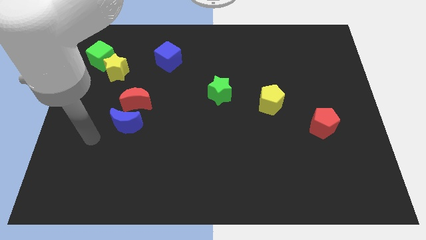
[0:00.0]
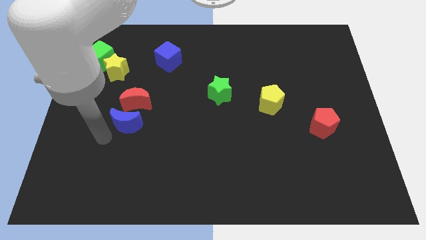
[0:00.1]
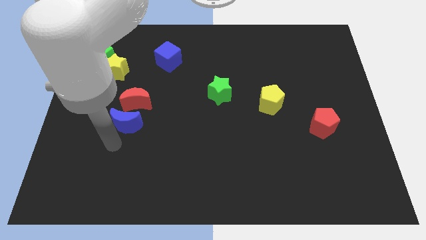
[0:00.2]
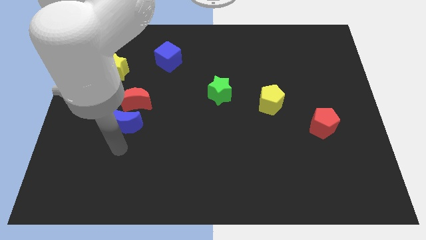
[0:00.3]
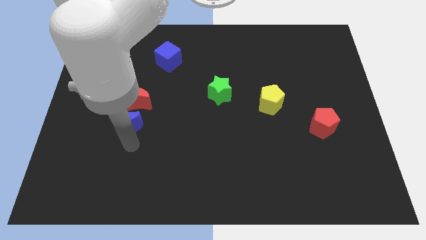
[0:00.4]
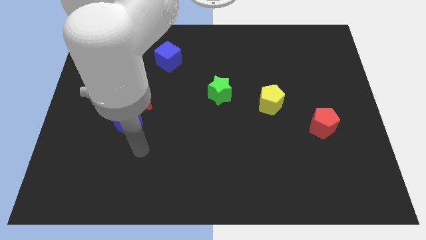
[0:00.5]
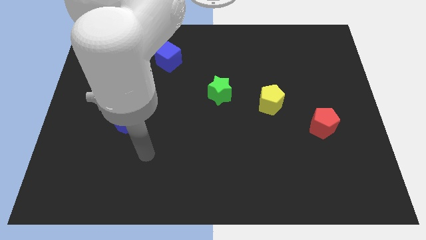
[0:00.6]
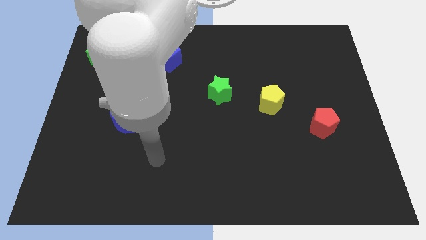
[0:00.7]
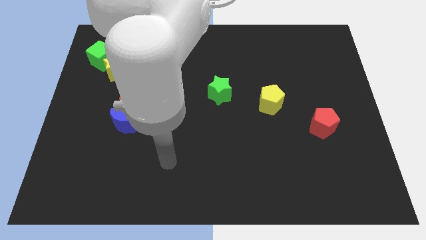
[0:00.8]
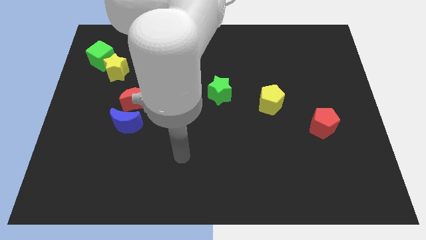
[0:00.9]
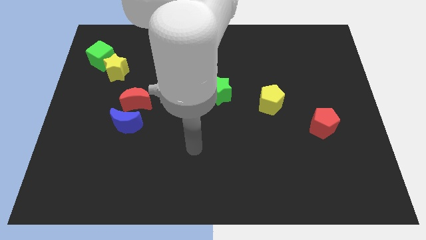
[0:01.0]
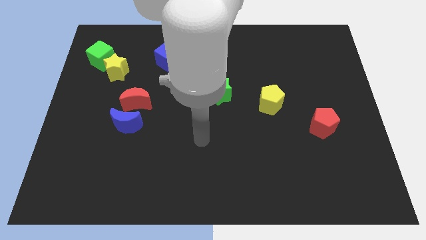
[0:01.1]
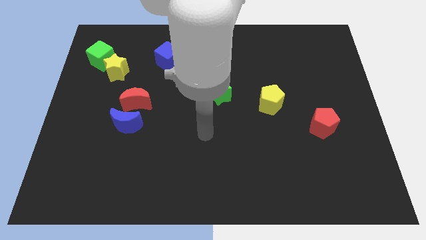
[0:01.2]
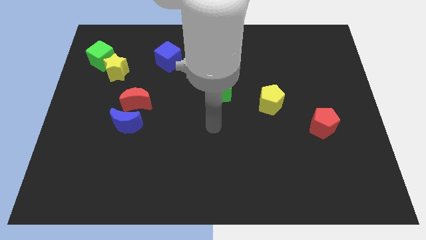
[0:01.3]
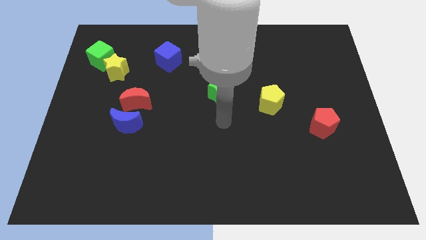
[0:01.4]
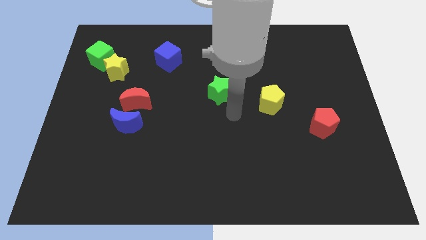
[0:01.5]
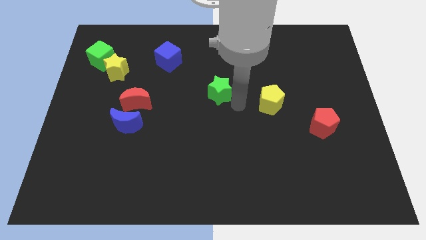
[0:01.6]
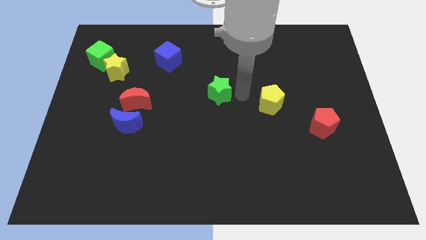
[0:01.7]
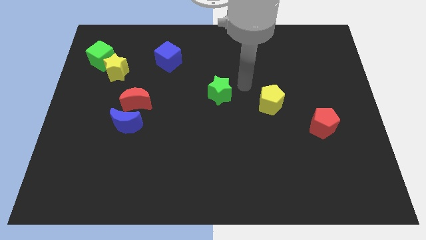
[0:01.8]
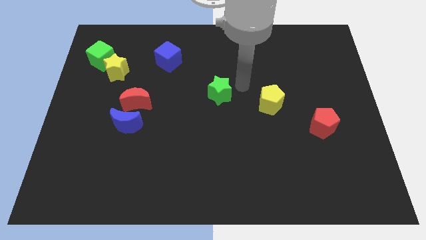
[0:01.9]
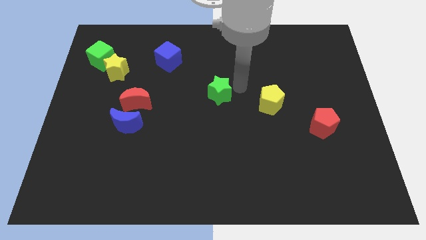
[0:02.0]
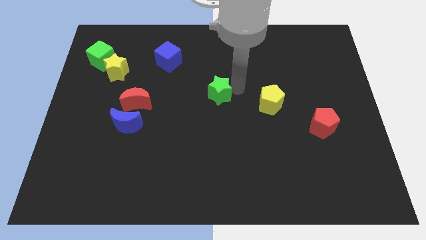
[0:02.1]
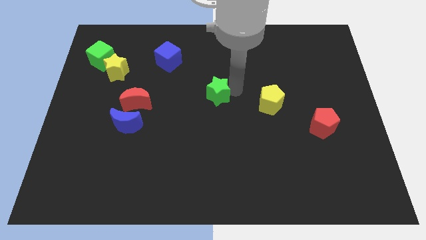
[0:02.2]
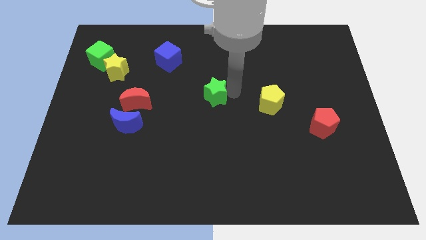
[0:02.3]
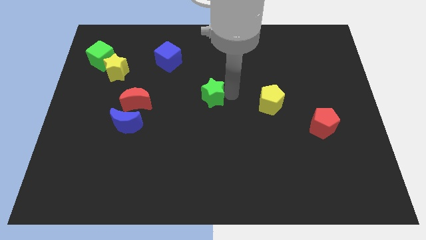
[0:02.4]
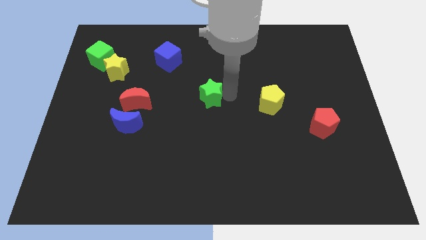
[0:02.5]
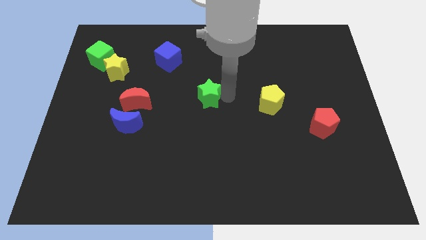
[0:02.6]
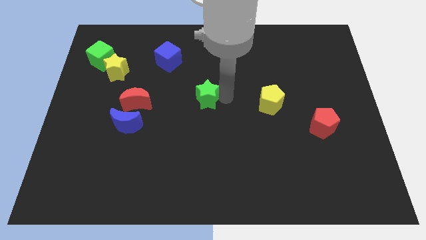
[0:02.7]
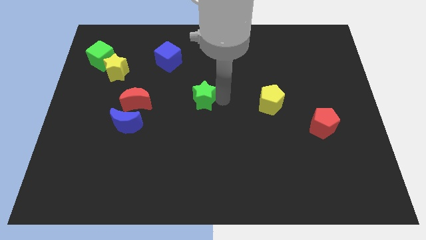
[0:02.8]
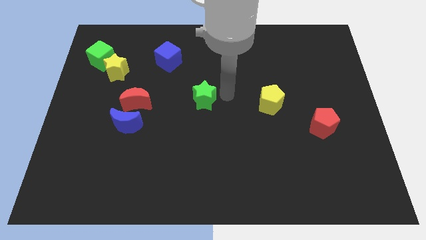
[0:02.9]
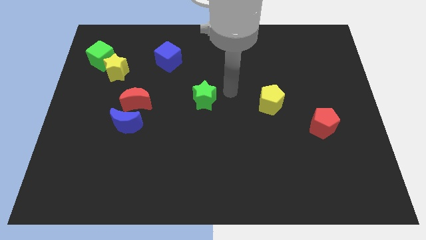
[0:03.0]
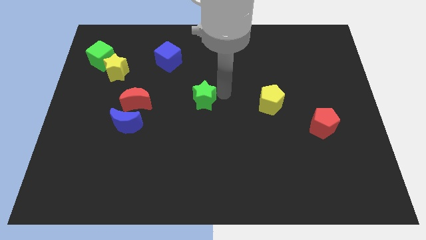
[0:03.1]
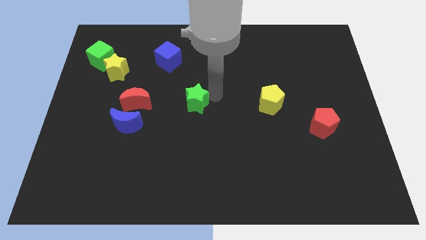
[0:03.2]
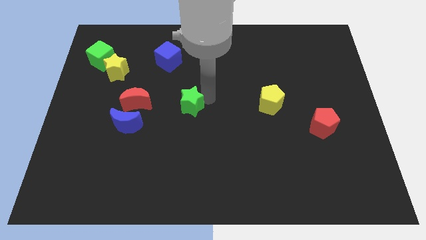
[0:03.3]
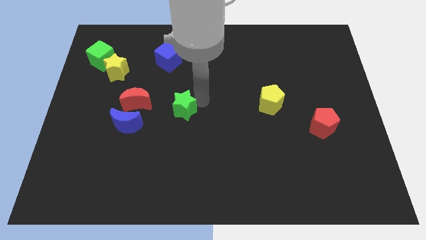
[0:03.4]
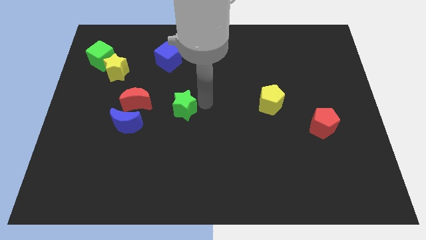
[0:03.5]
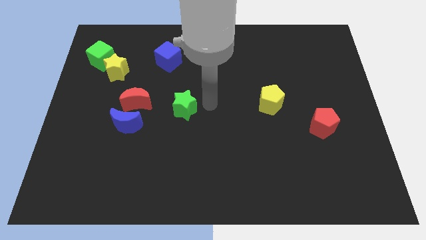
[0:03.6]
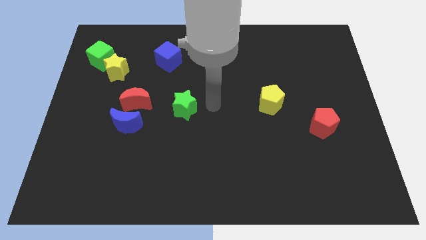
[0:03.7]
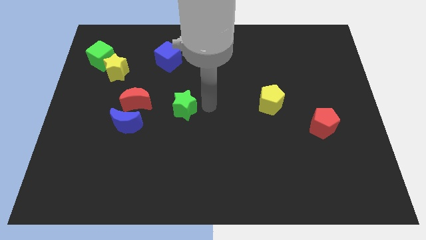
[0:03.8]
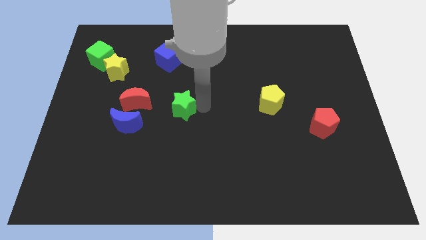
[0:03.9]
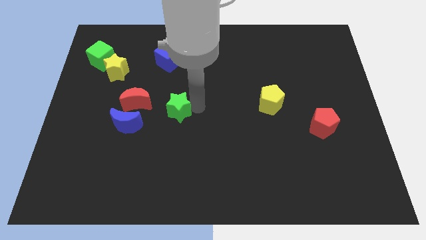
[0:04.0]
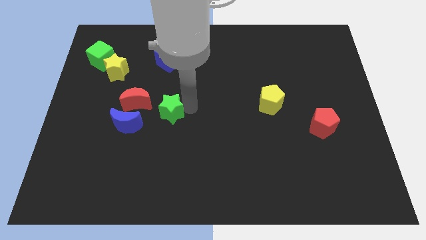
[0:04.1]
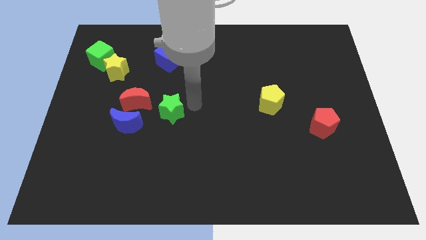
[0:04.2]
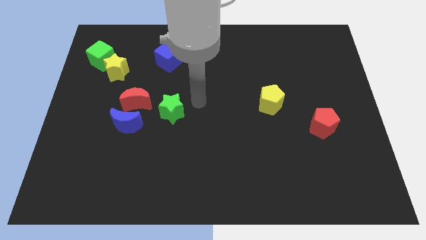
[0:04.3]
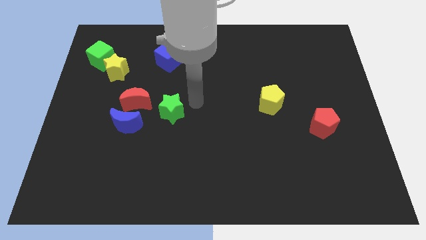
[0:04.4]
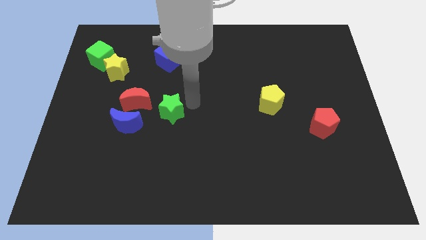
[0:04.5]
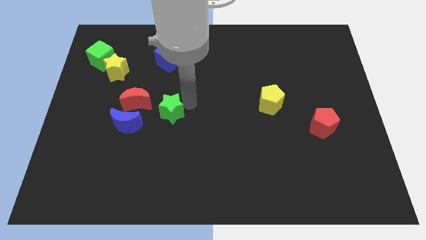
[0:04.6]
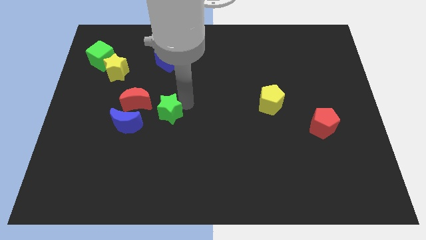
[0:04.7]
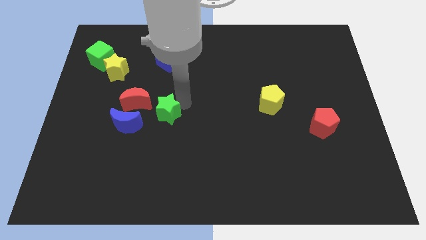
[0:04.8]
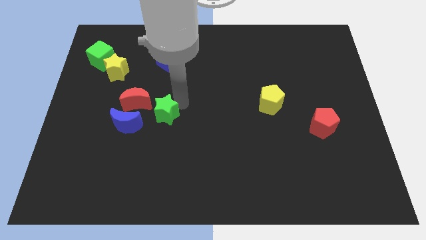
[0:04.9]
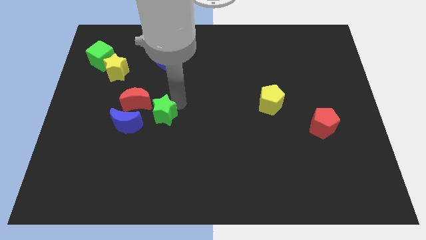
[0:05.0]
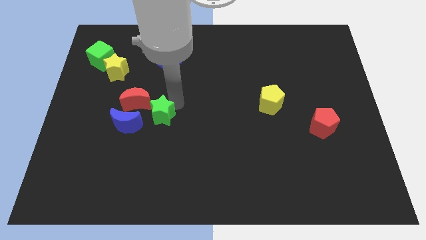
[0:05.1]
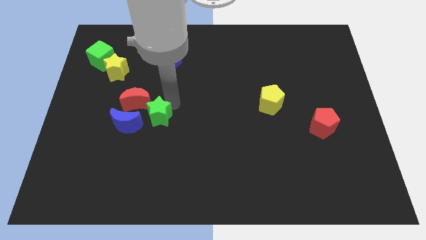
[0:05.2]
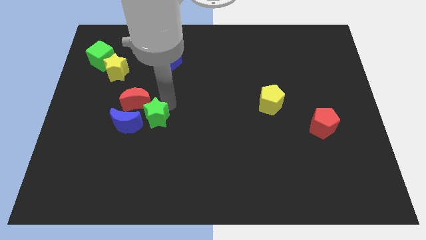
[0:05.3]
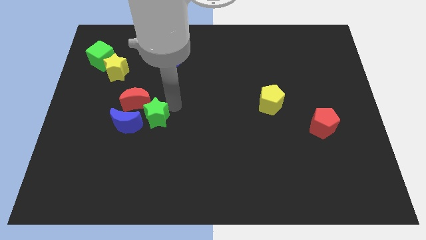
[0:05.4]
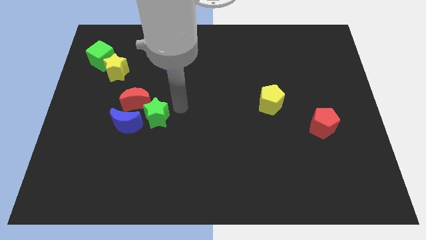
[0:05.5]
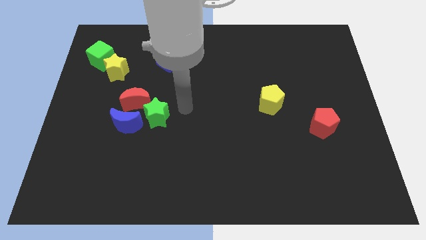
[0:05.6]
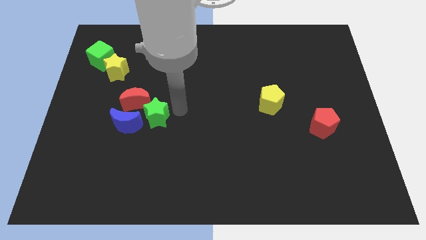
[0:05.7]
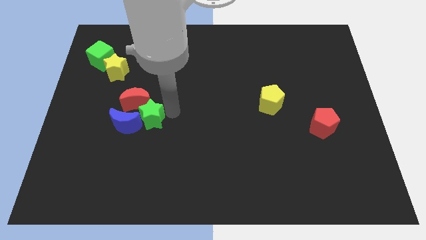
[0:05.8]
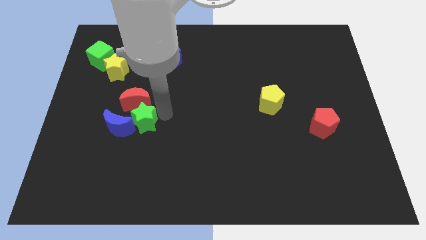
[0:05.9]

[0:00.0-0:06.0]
push the green star next to the blue moon
